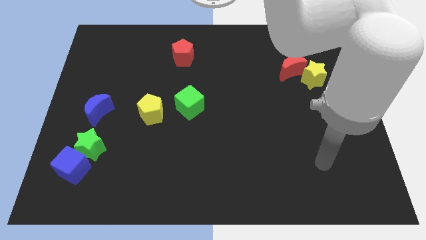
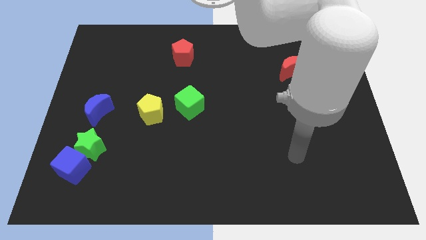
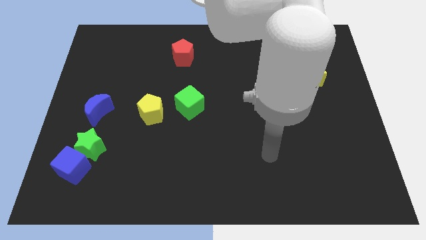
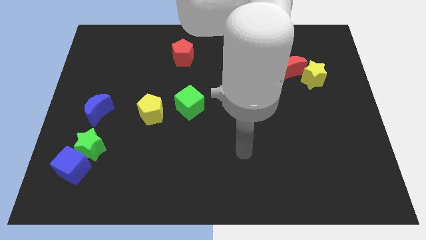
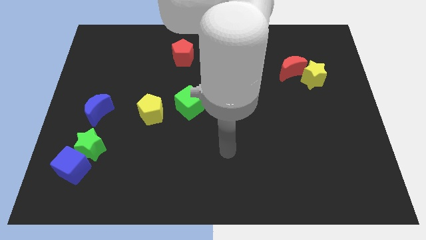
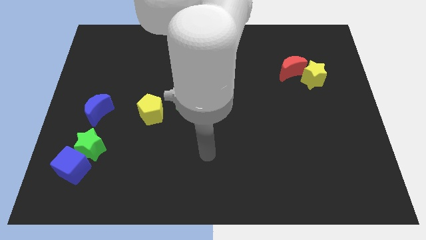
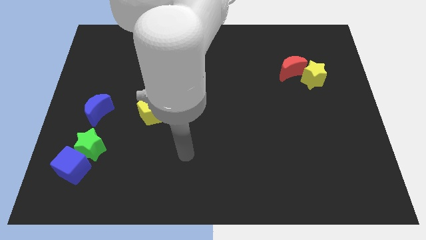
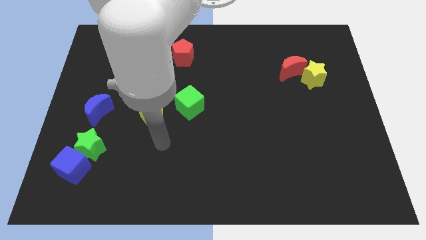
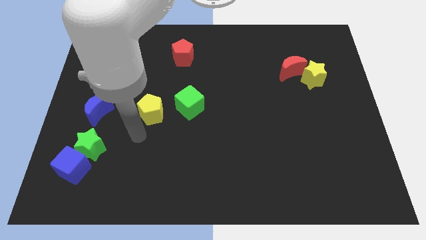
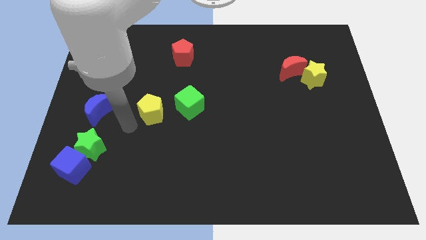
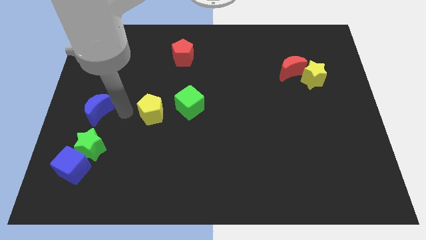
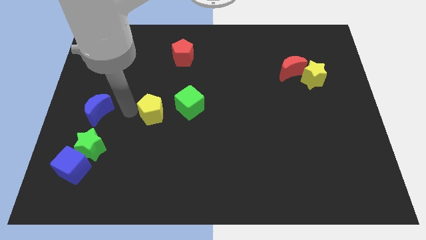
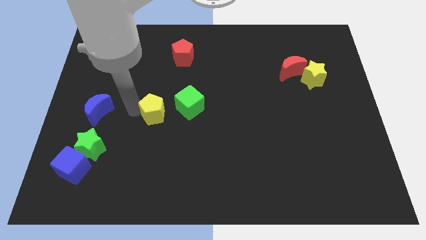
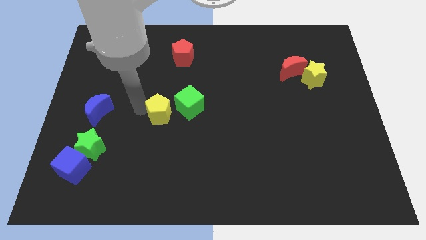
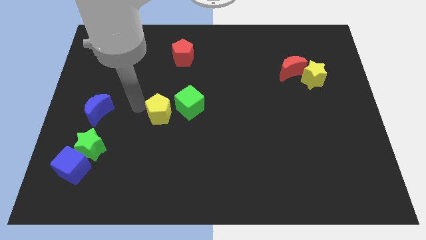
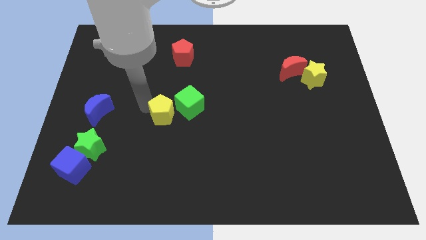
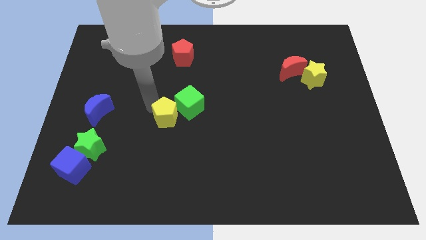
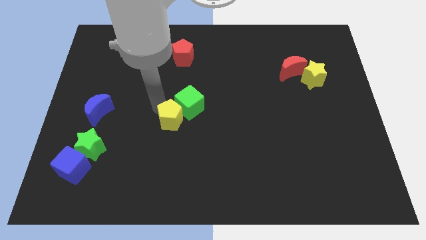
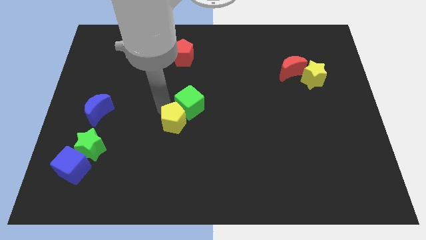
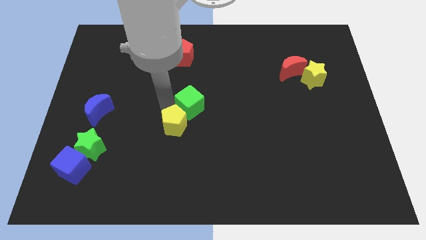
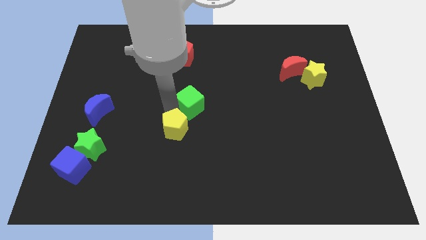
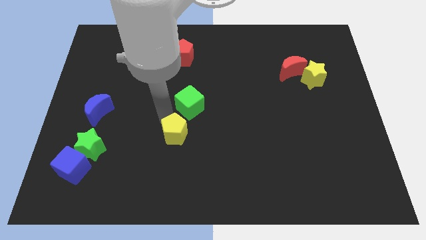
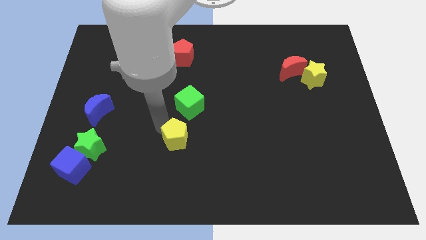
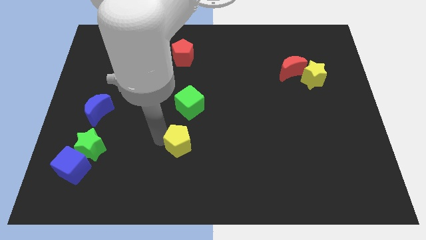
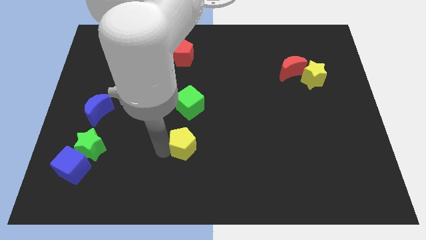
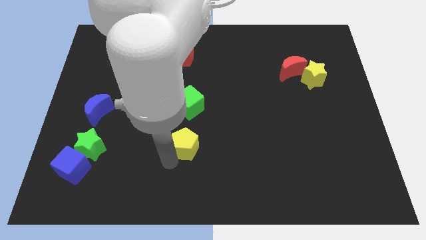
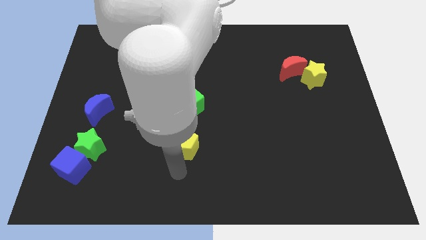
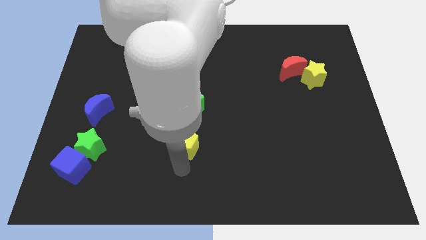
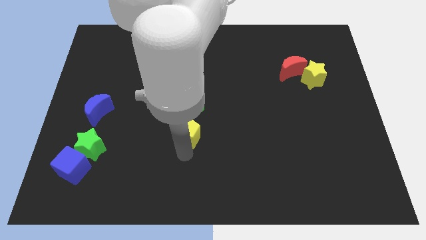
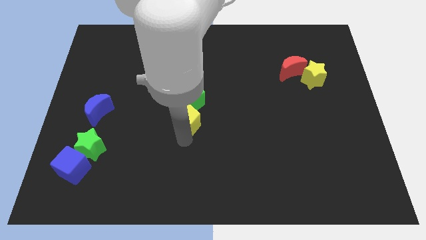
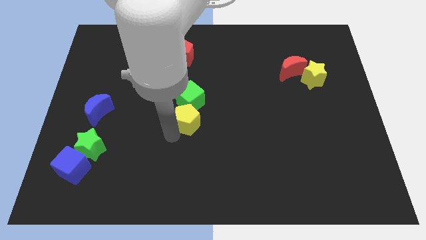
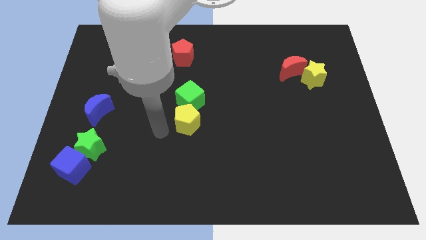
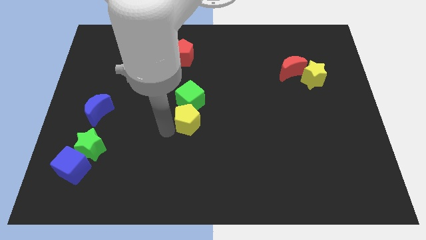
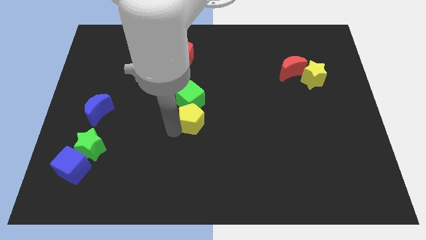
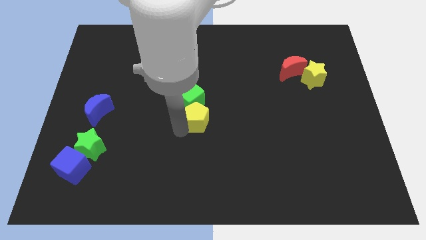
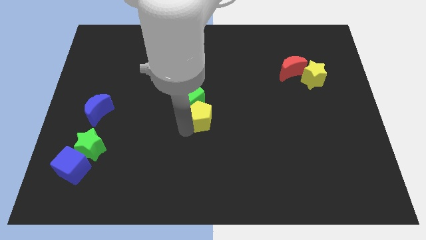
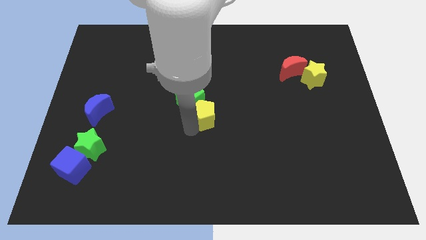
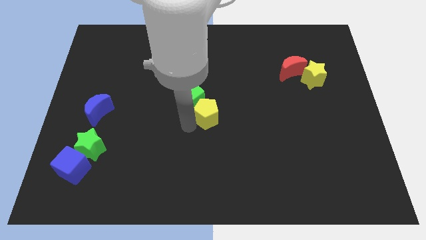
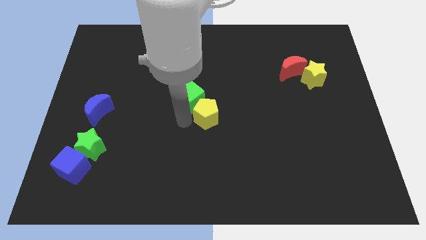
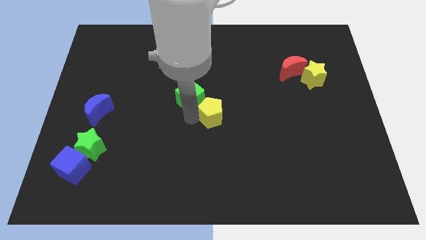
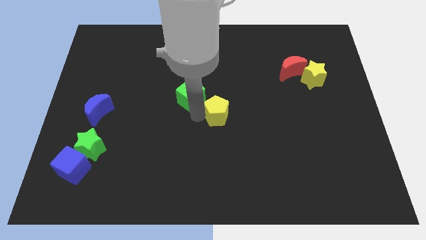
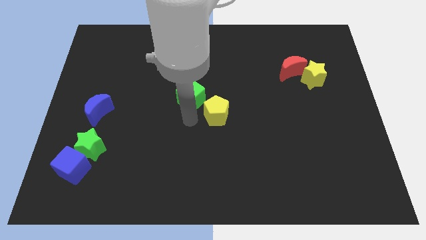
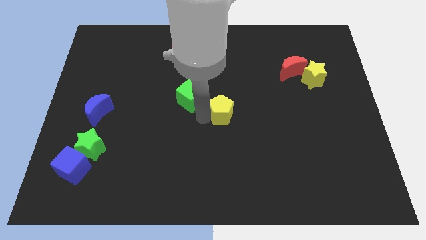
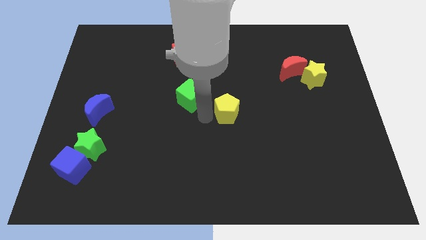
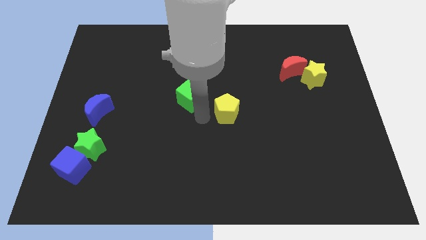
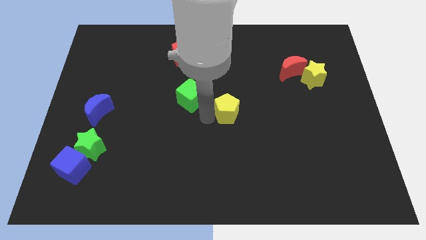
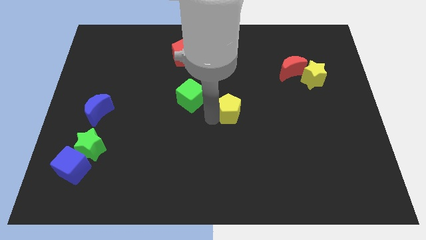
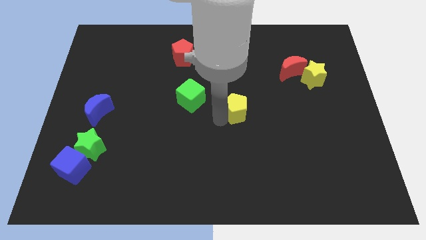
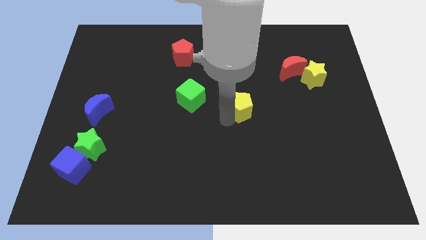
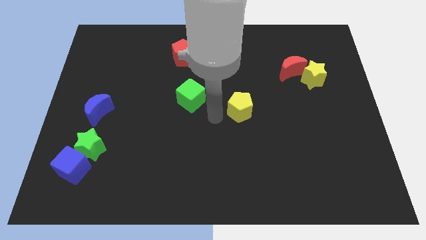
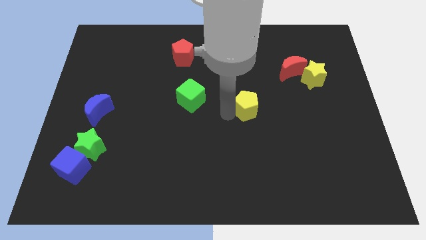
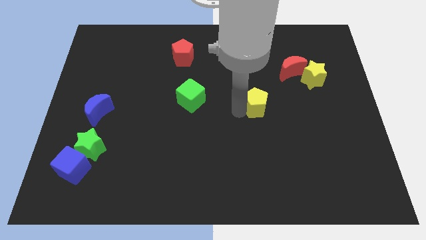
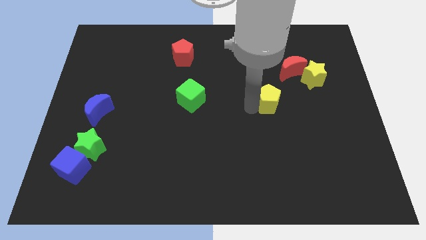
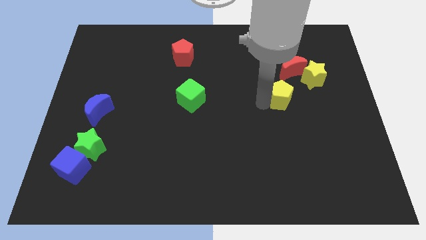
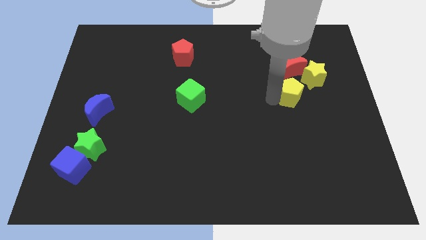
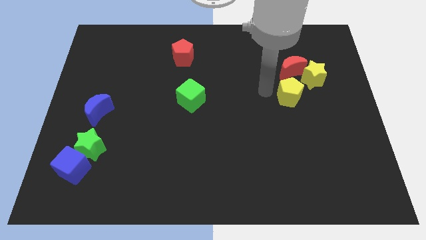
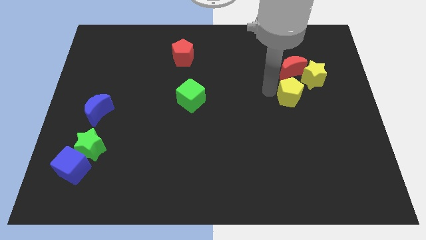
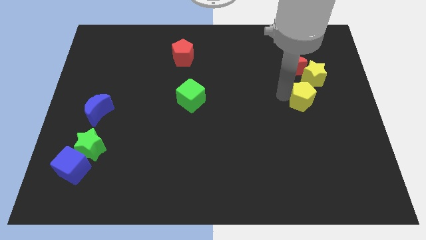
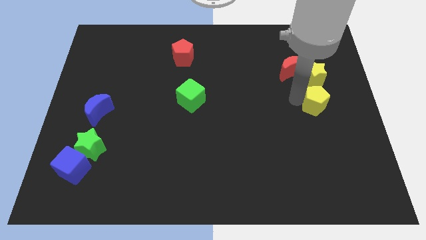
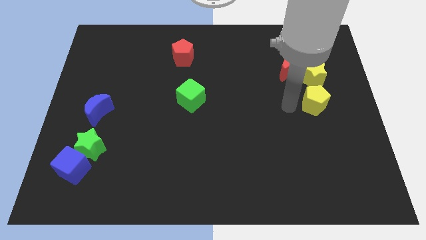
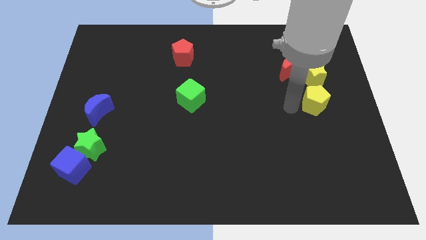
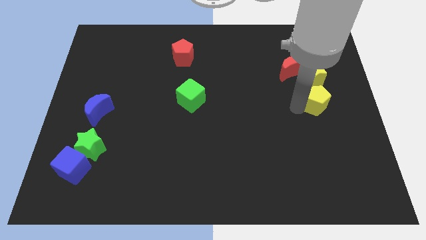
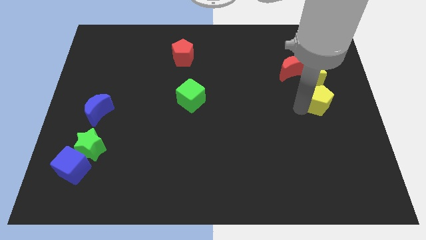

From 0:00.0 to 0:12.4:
push the yellow pentagon to the center right

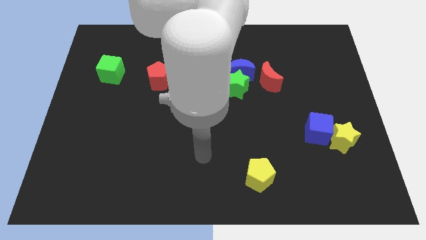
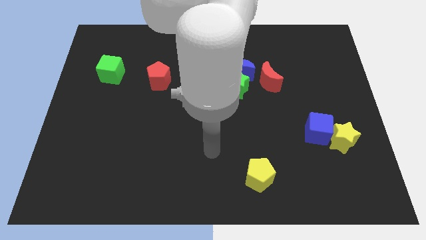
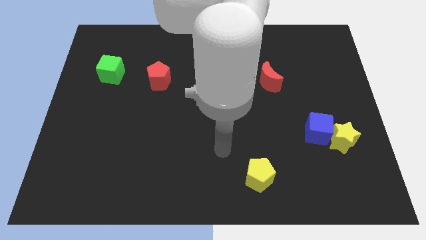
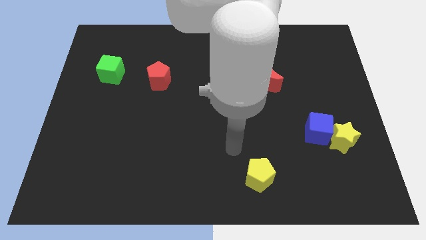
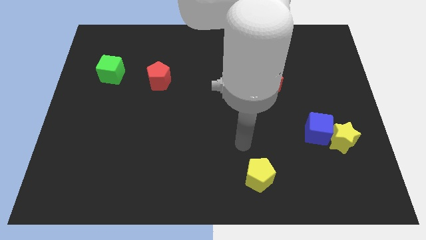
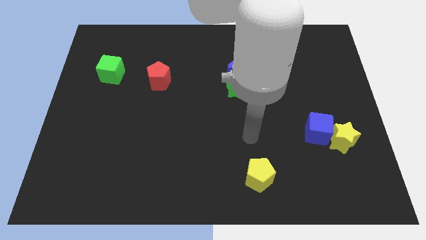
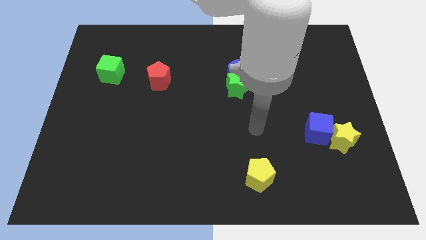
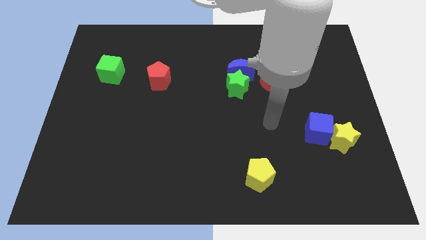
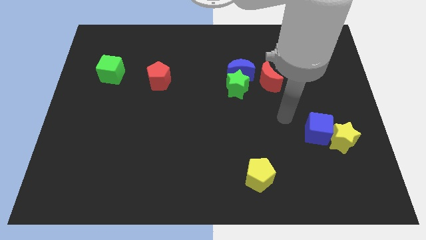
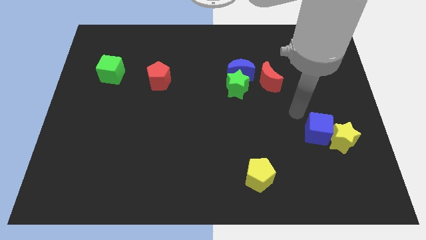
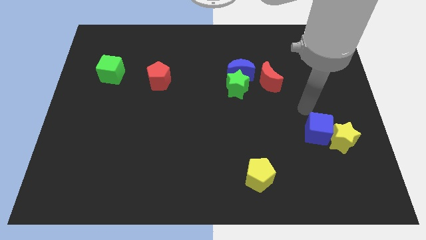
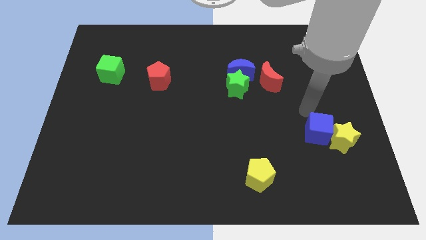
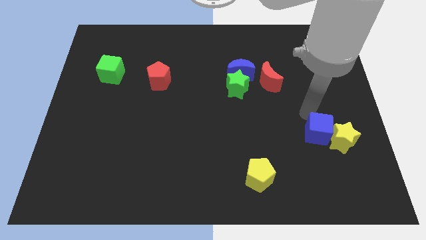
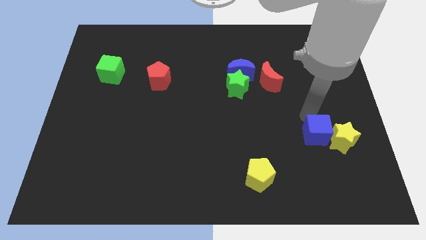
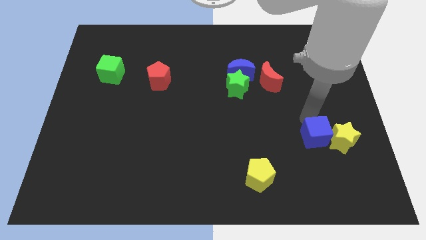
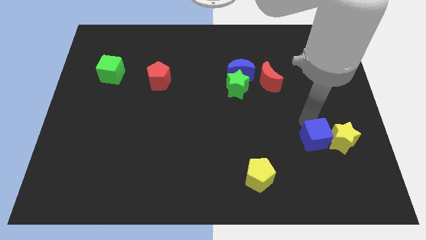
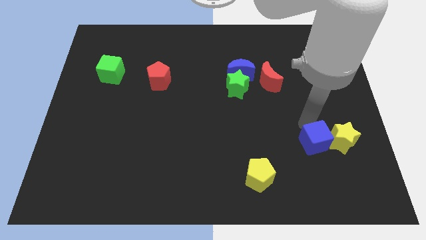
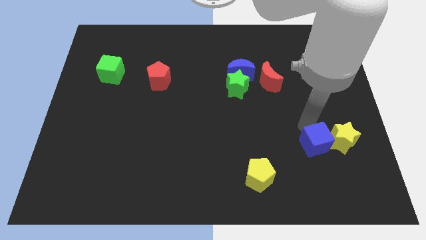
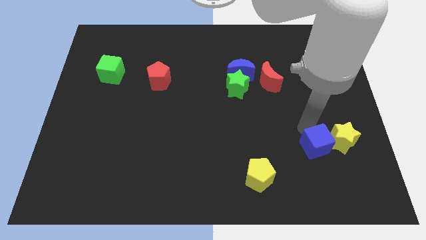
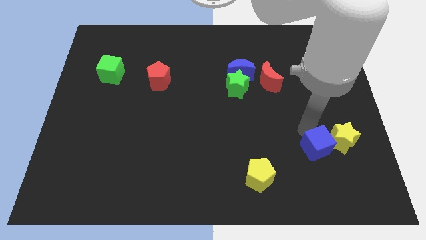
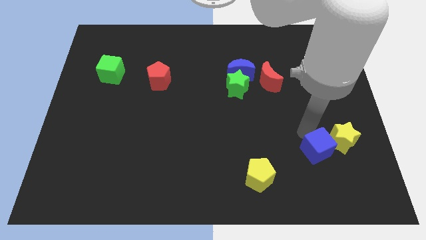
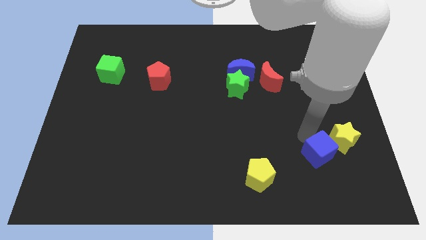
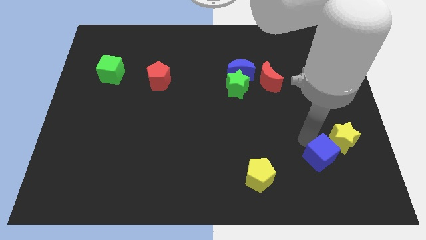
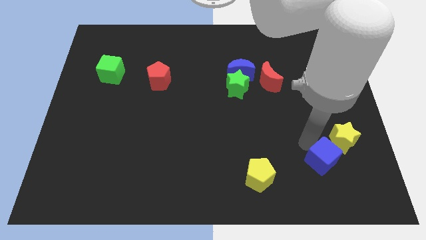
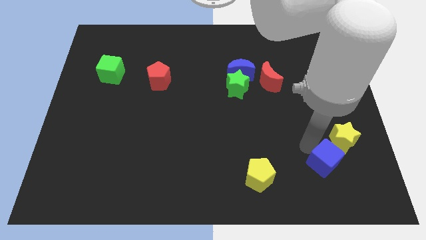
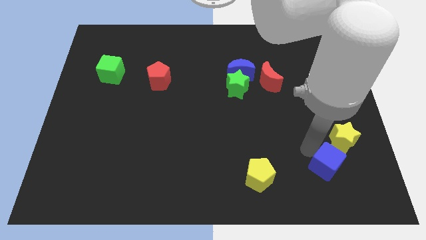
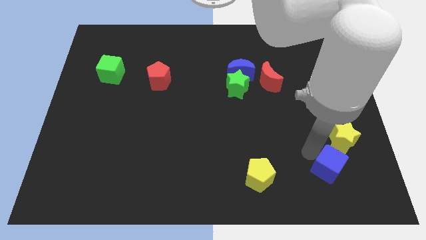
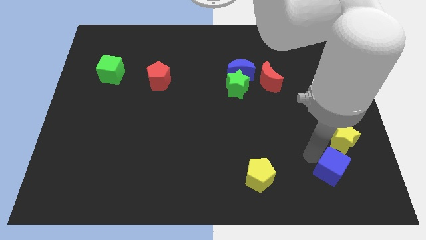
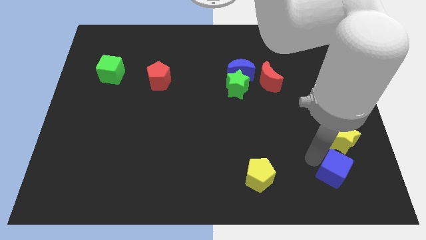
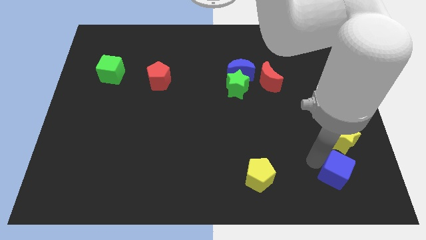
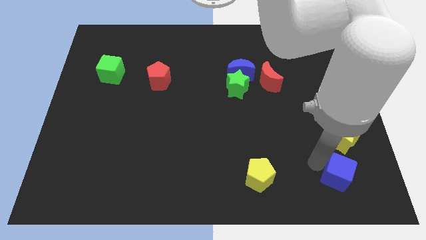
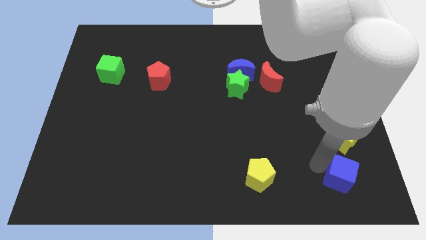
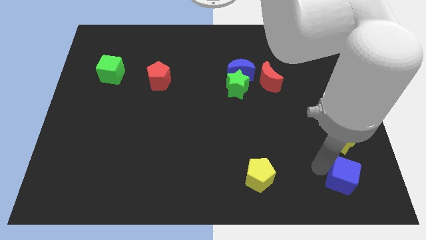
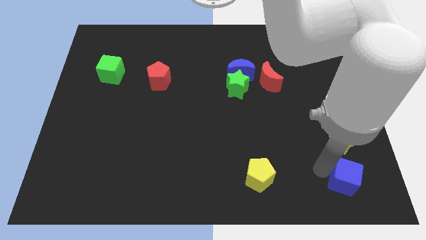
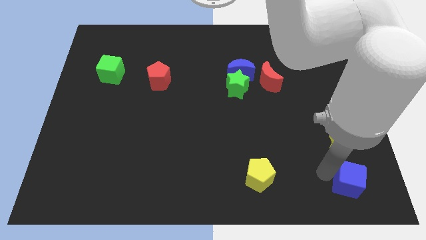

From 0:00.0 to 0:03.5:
push the blue cube to the lower right corner
